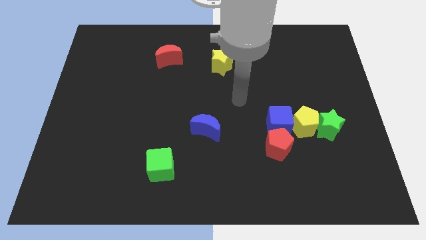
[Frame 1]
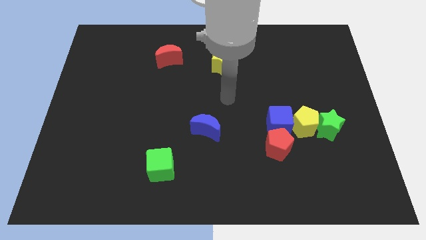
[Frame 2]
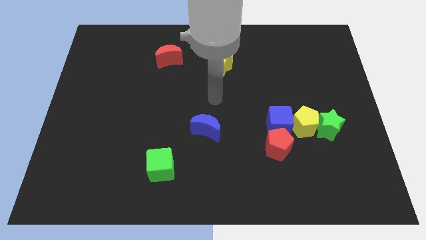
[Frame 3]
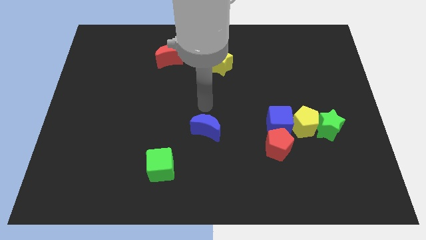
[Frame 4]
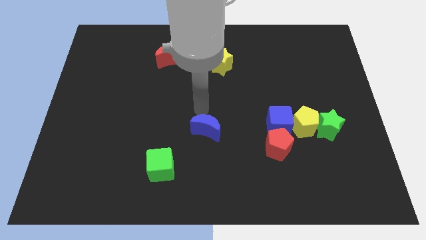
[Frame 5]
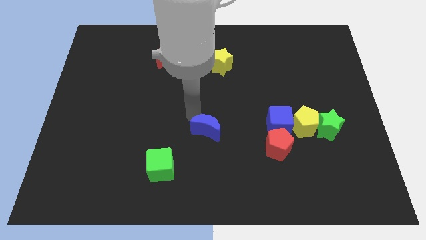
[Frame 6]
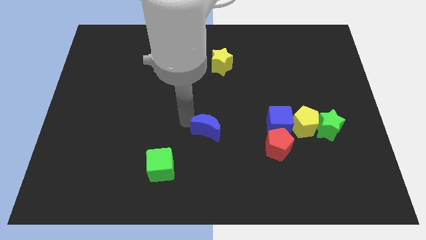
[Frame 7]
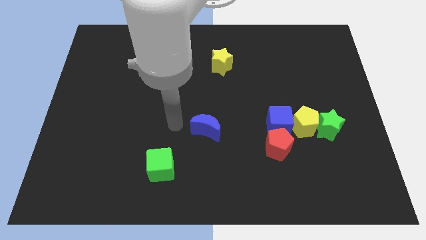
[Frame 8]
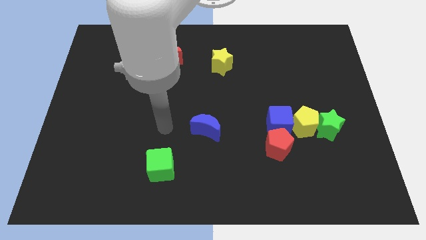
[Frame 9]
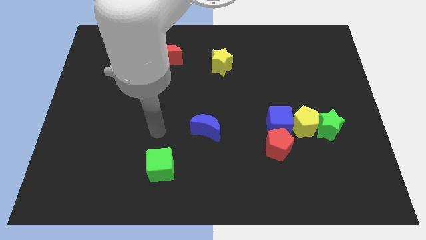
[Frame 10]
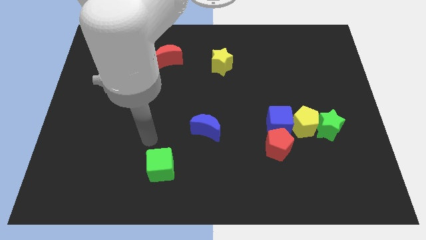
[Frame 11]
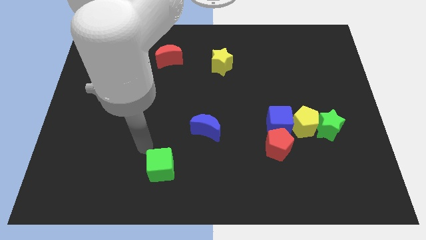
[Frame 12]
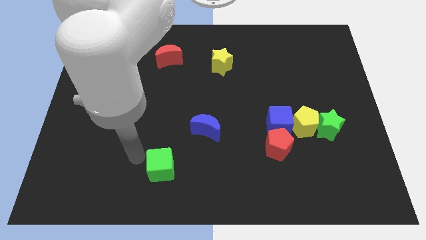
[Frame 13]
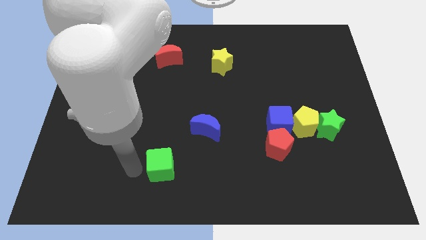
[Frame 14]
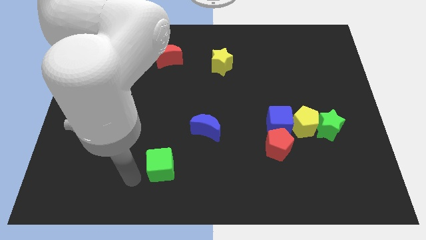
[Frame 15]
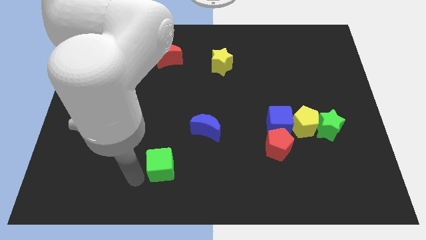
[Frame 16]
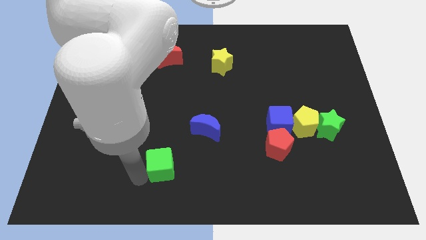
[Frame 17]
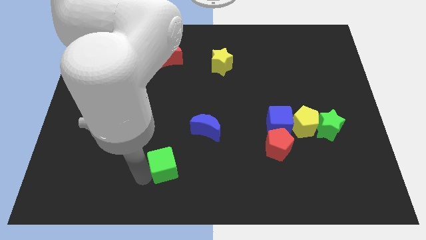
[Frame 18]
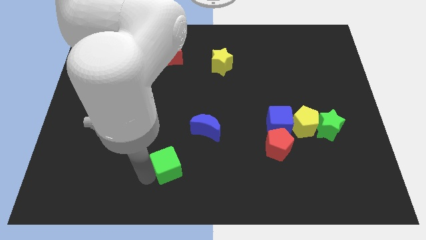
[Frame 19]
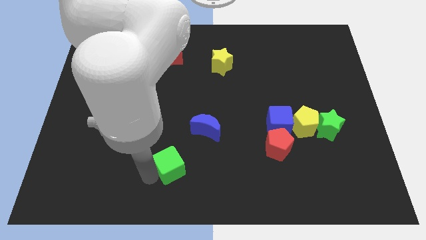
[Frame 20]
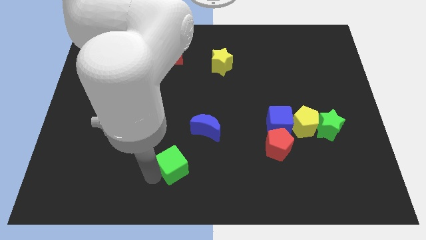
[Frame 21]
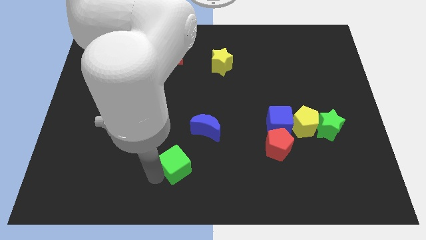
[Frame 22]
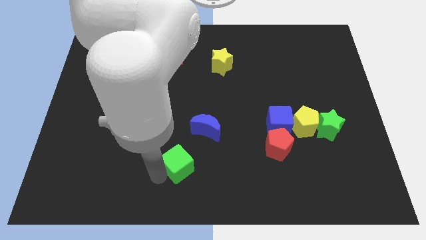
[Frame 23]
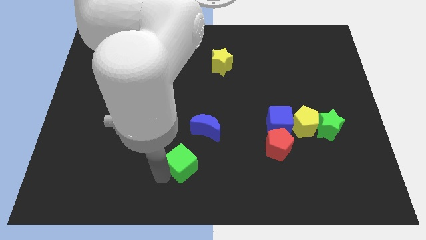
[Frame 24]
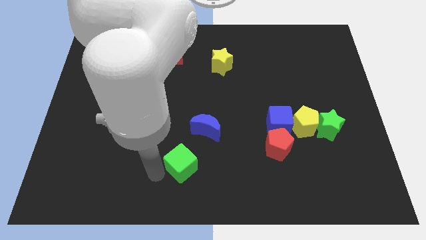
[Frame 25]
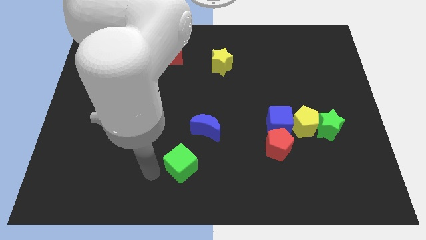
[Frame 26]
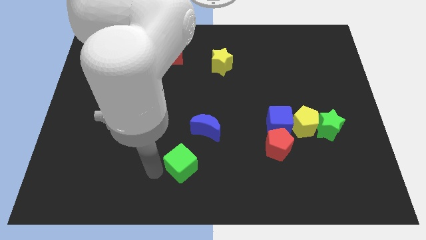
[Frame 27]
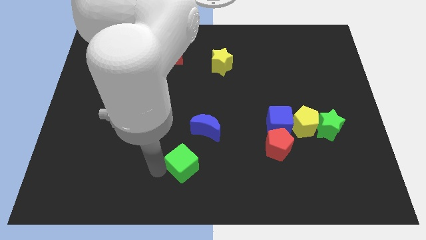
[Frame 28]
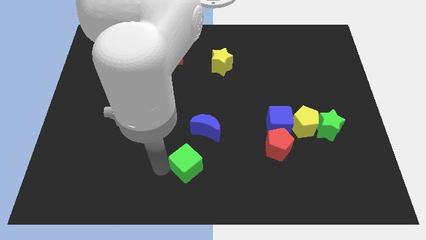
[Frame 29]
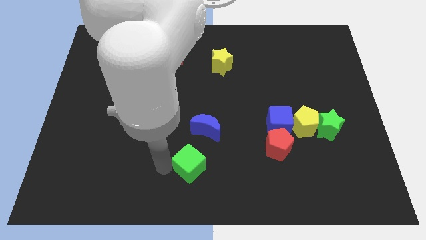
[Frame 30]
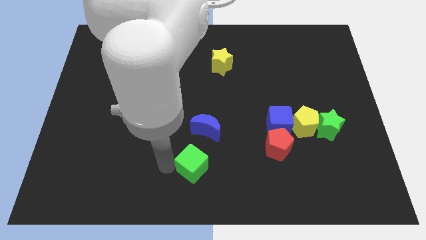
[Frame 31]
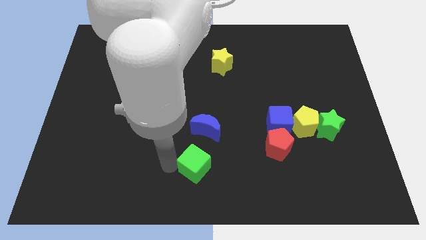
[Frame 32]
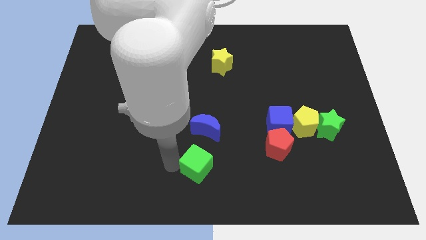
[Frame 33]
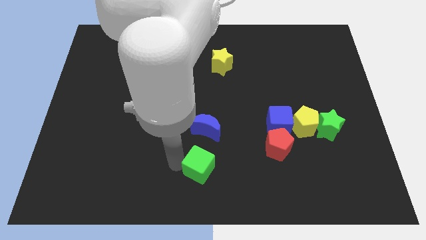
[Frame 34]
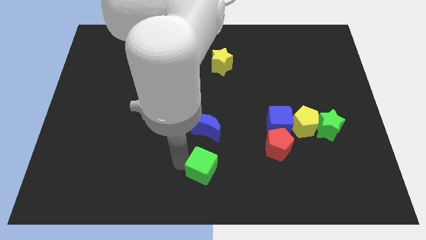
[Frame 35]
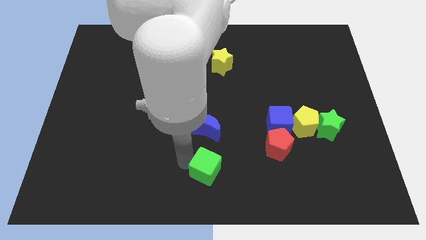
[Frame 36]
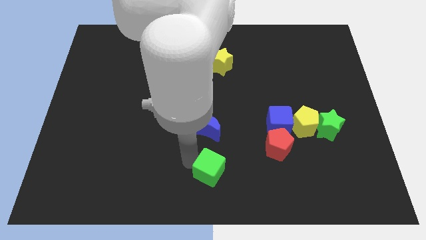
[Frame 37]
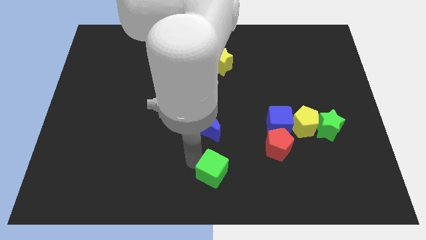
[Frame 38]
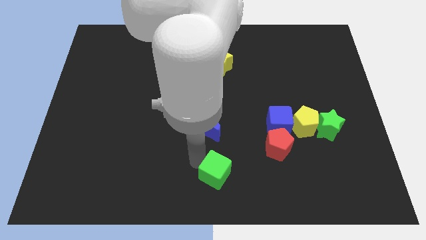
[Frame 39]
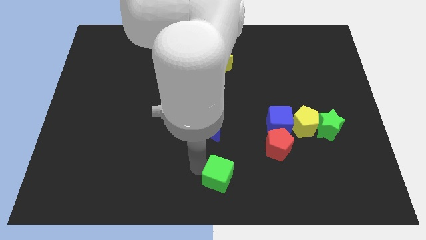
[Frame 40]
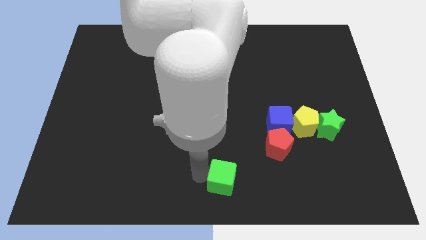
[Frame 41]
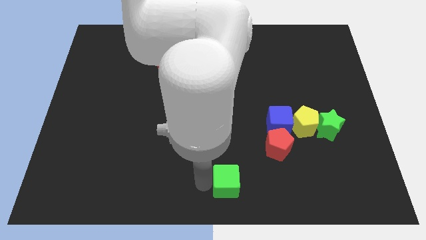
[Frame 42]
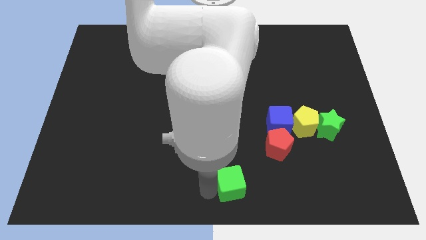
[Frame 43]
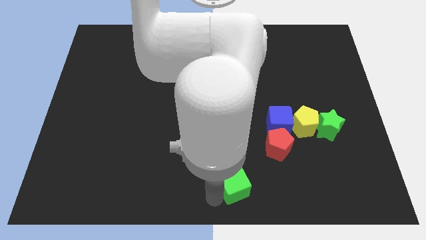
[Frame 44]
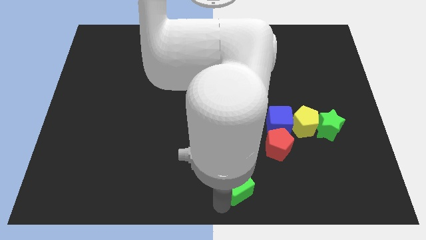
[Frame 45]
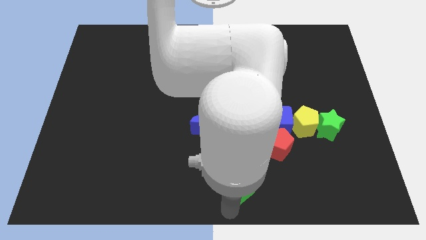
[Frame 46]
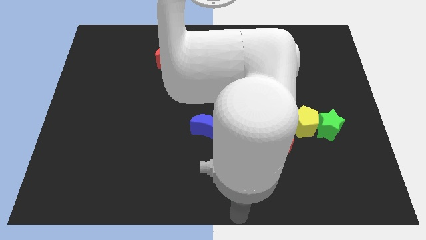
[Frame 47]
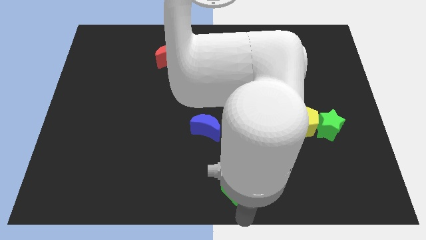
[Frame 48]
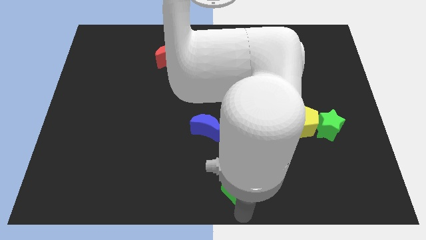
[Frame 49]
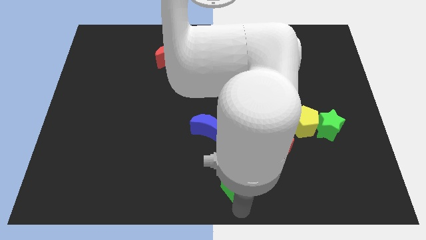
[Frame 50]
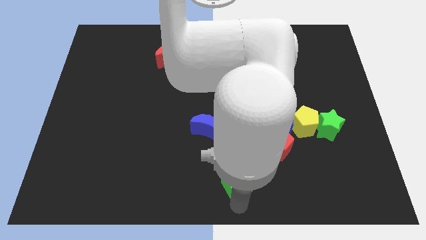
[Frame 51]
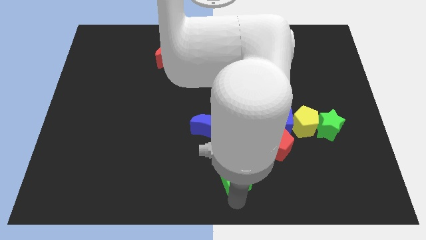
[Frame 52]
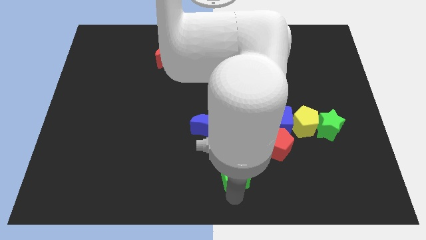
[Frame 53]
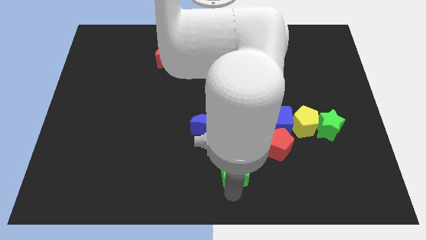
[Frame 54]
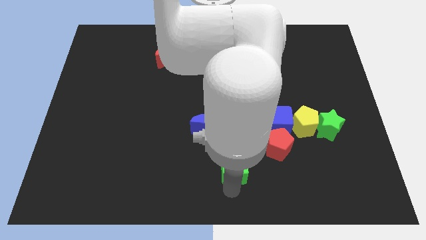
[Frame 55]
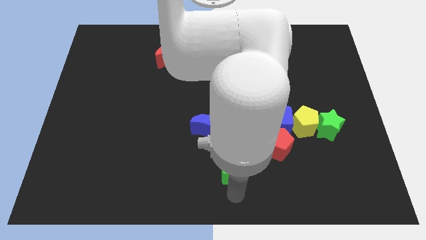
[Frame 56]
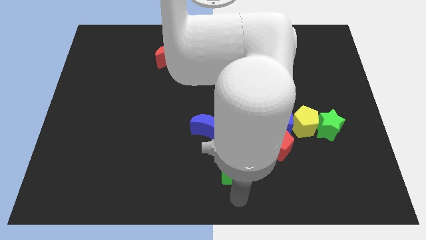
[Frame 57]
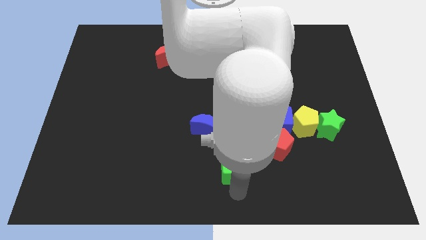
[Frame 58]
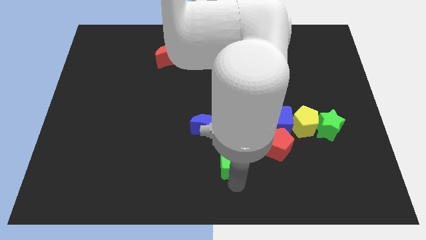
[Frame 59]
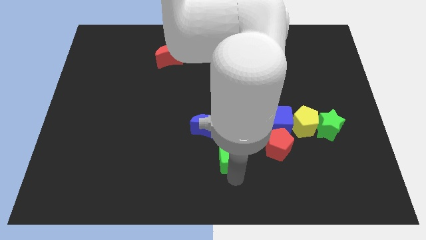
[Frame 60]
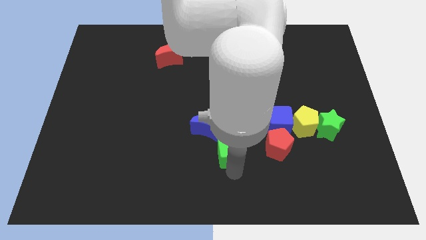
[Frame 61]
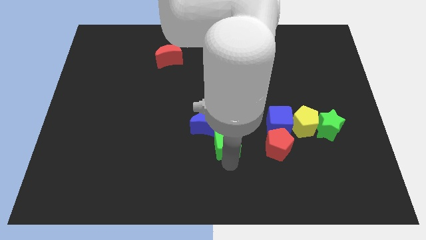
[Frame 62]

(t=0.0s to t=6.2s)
put the green cube right of the blue moon

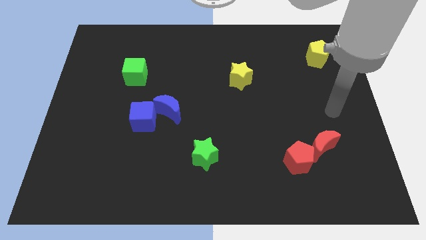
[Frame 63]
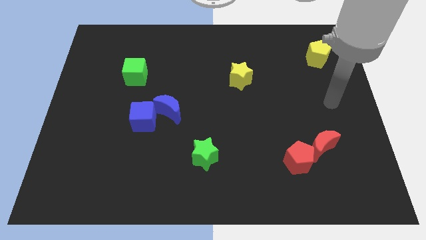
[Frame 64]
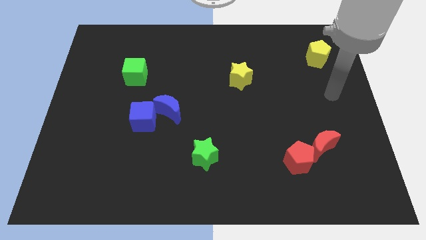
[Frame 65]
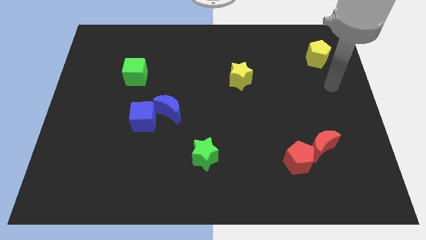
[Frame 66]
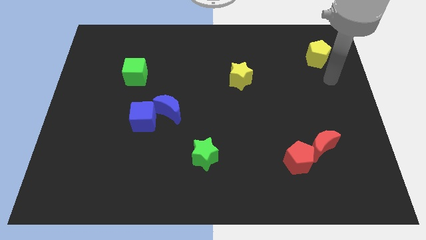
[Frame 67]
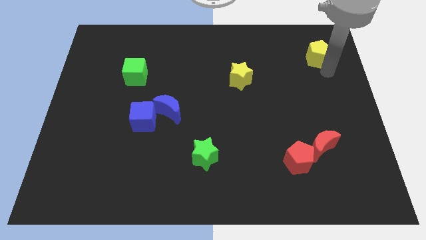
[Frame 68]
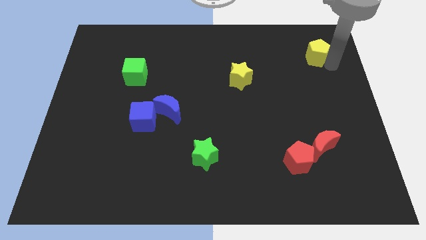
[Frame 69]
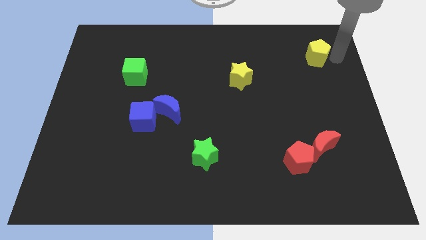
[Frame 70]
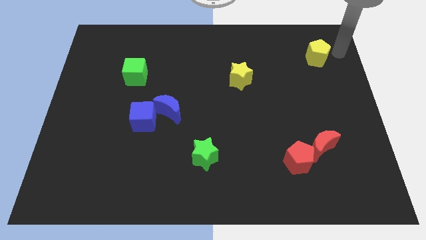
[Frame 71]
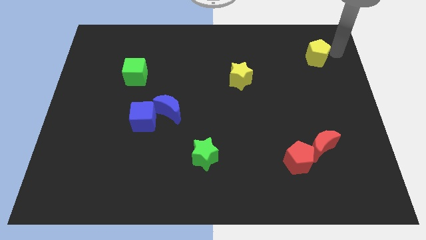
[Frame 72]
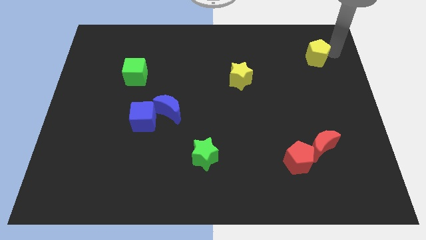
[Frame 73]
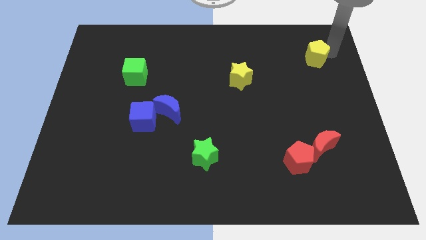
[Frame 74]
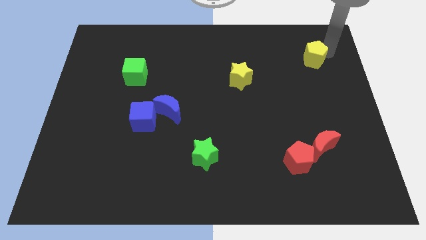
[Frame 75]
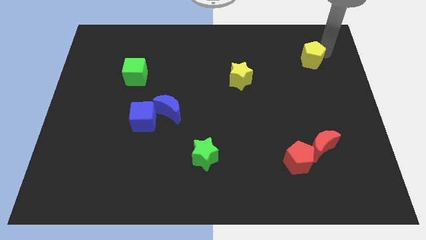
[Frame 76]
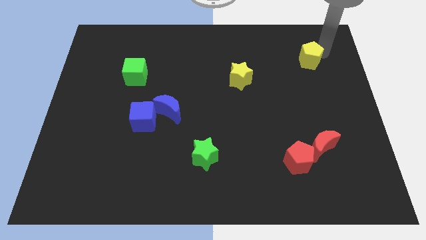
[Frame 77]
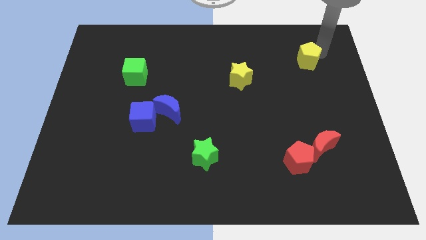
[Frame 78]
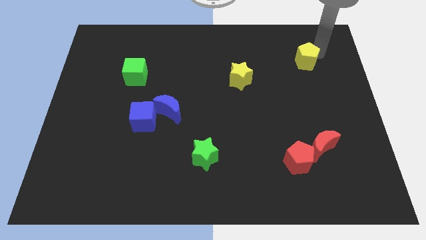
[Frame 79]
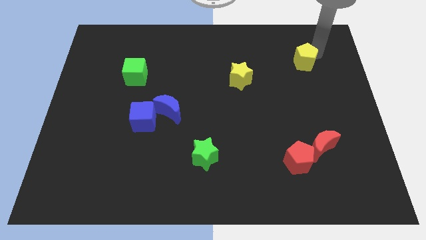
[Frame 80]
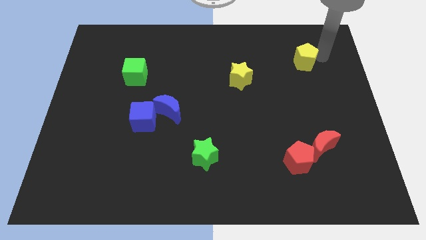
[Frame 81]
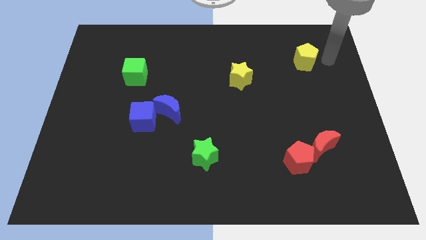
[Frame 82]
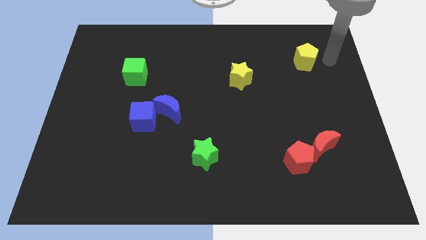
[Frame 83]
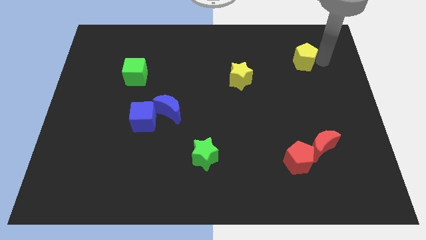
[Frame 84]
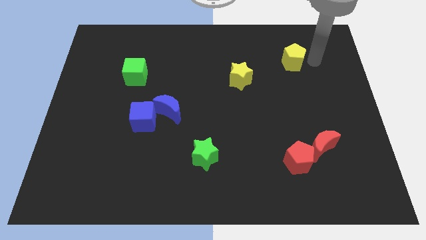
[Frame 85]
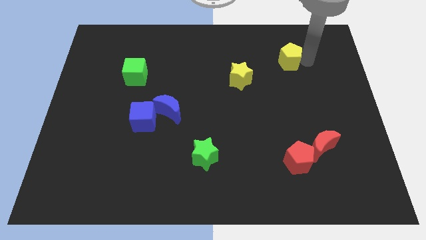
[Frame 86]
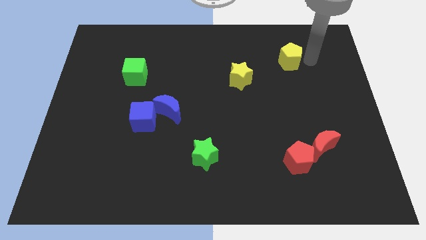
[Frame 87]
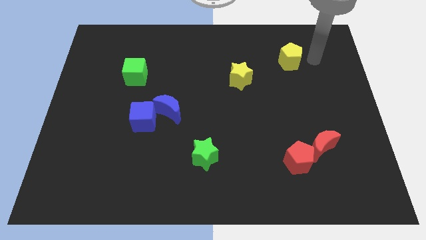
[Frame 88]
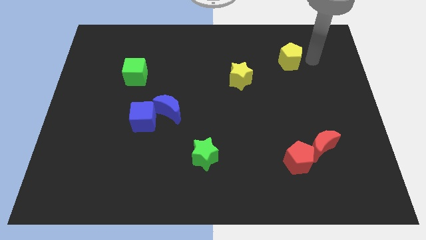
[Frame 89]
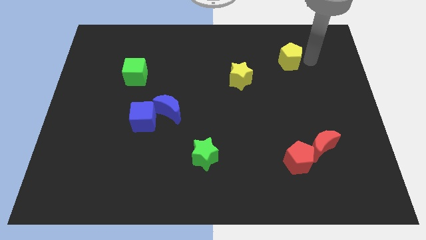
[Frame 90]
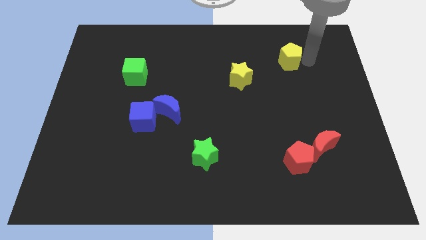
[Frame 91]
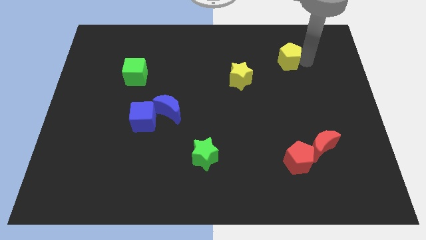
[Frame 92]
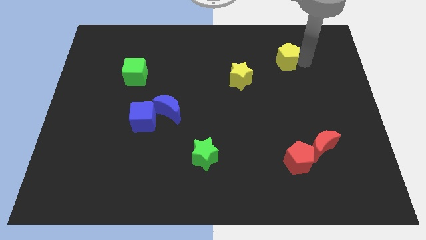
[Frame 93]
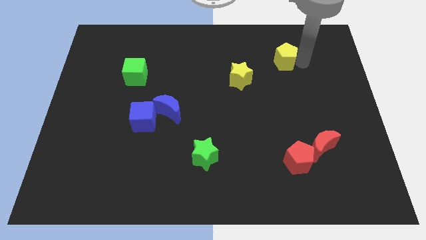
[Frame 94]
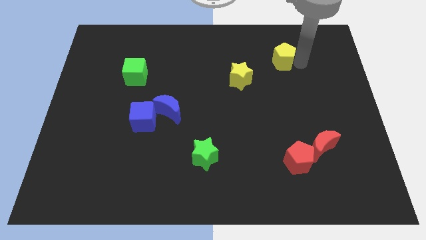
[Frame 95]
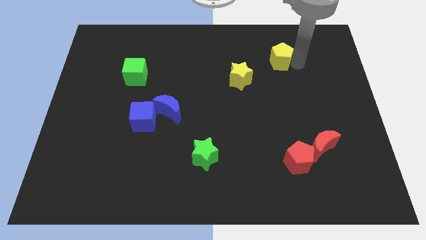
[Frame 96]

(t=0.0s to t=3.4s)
push the yellow pentagon to the top right of the yellow star
